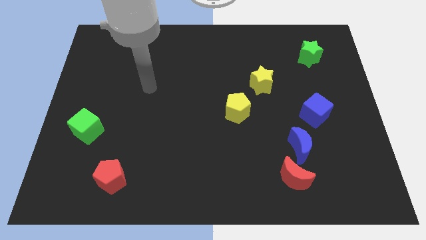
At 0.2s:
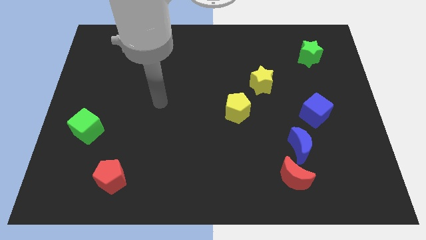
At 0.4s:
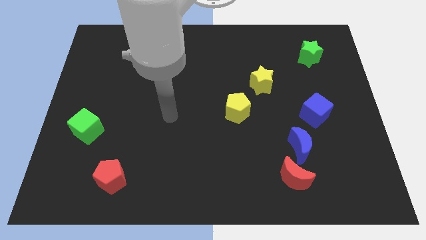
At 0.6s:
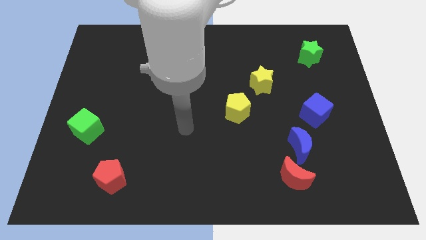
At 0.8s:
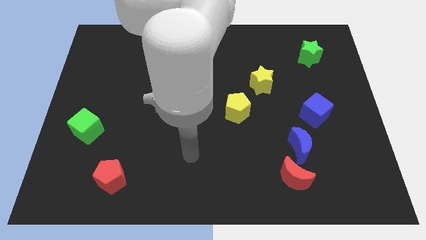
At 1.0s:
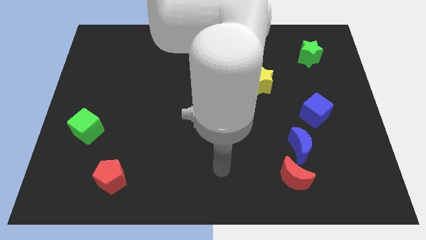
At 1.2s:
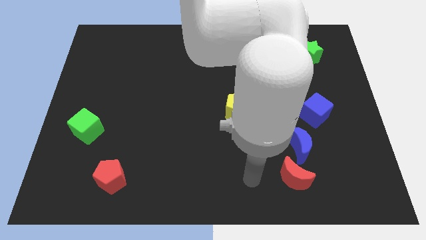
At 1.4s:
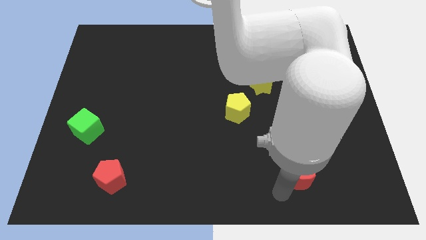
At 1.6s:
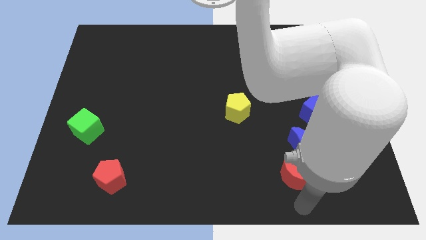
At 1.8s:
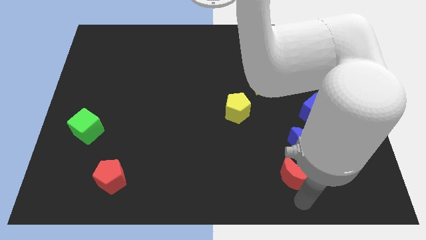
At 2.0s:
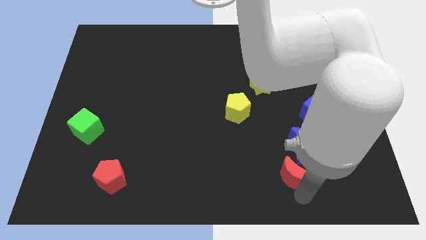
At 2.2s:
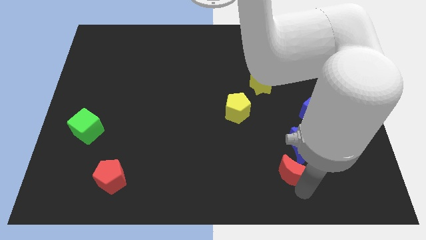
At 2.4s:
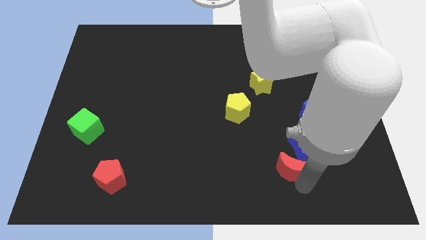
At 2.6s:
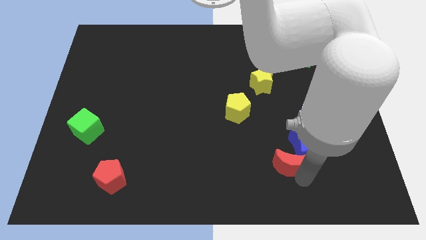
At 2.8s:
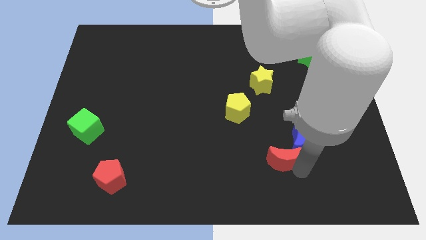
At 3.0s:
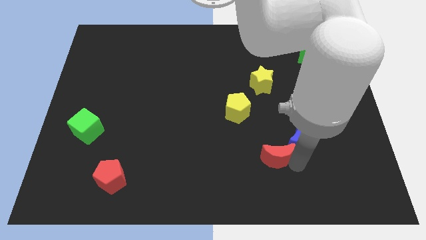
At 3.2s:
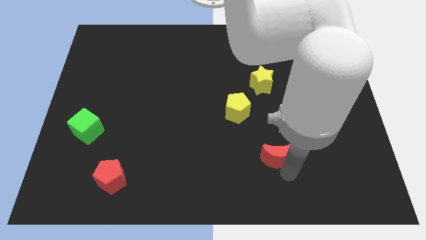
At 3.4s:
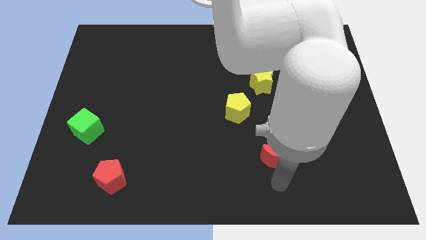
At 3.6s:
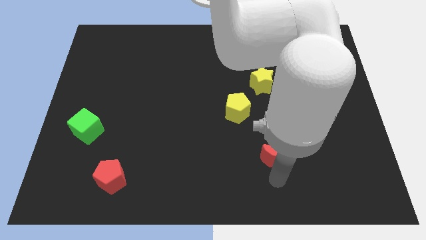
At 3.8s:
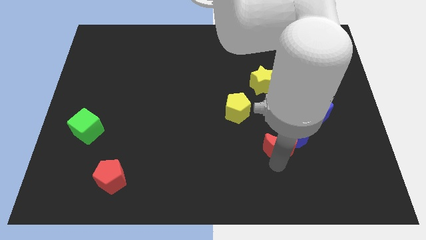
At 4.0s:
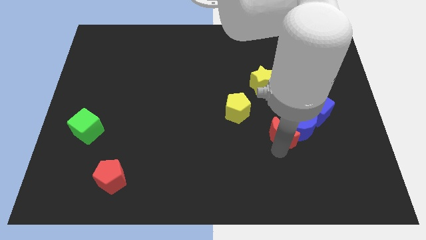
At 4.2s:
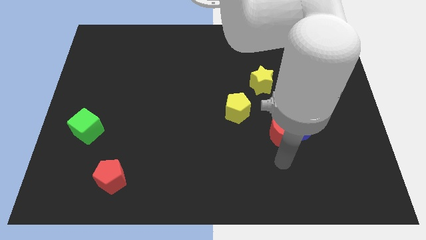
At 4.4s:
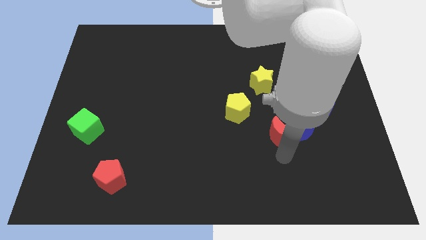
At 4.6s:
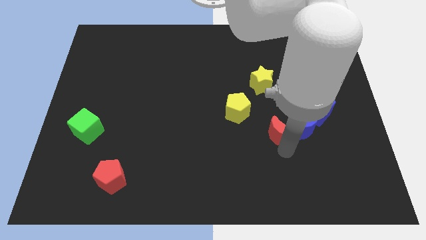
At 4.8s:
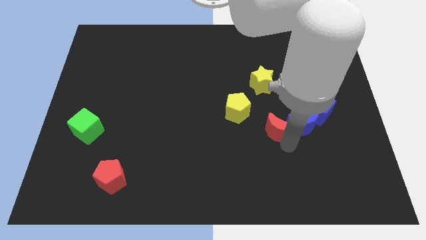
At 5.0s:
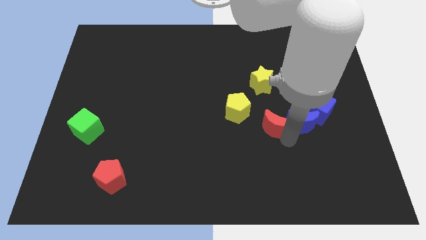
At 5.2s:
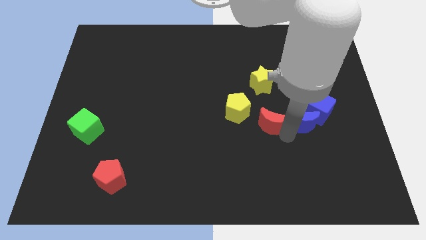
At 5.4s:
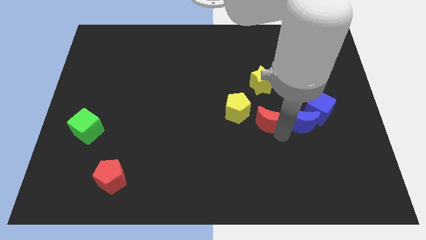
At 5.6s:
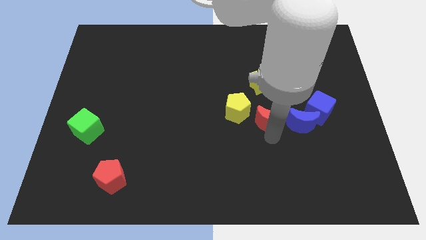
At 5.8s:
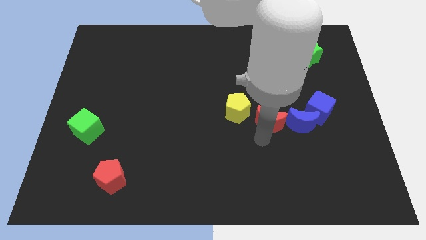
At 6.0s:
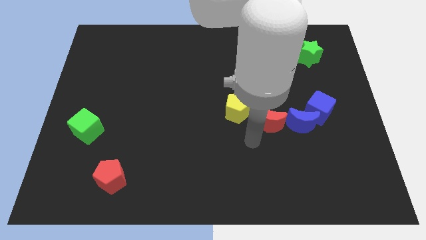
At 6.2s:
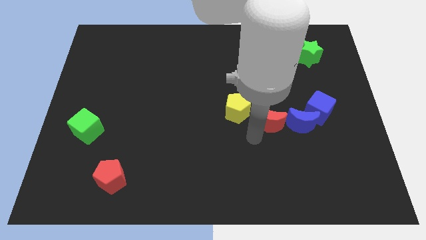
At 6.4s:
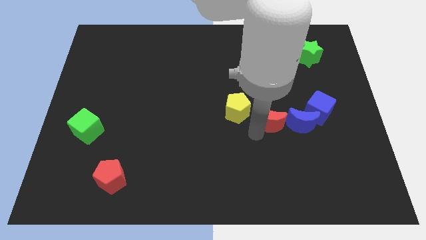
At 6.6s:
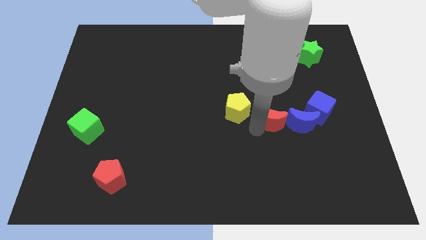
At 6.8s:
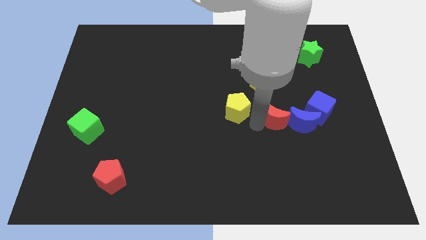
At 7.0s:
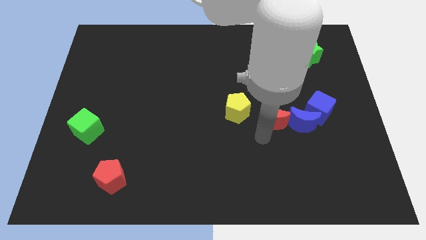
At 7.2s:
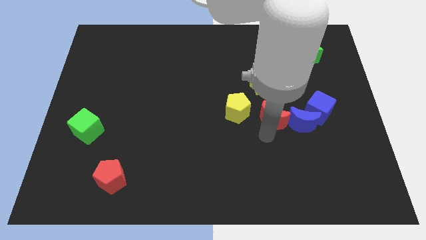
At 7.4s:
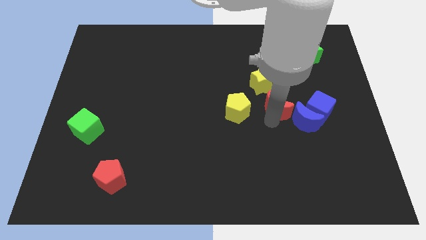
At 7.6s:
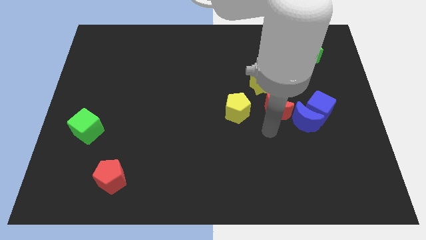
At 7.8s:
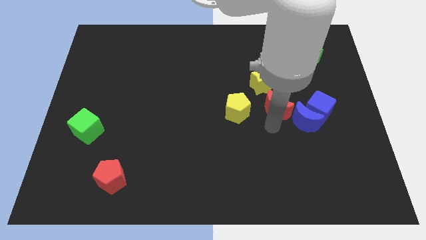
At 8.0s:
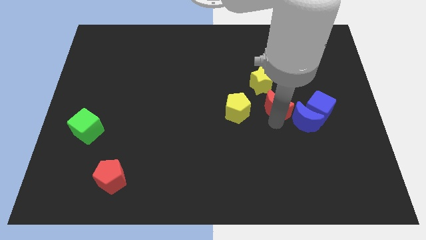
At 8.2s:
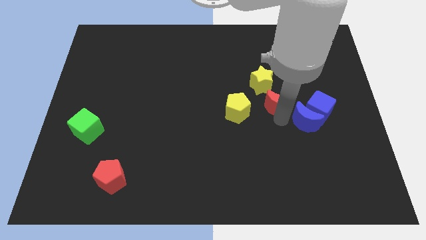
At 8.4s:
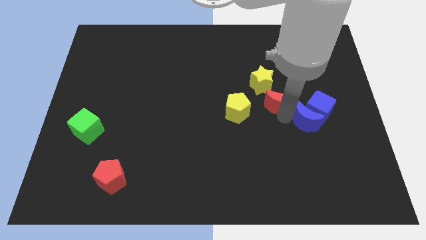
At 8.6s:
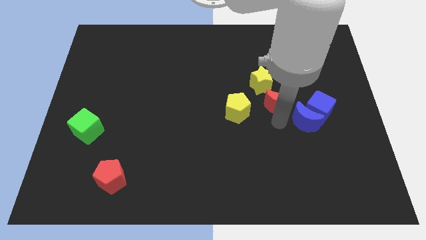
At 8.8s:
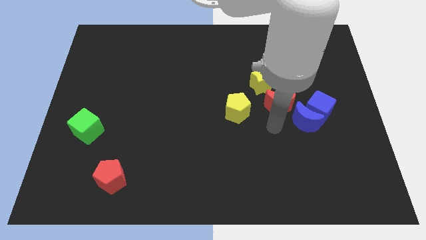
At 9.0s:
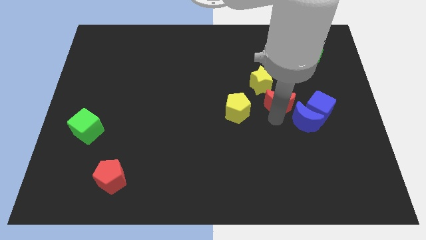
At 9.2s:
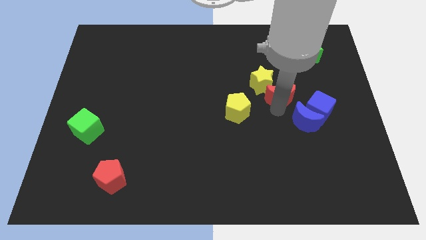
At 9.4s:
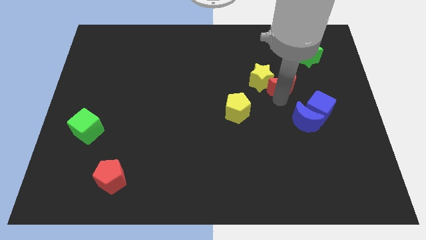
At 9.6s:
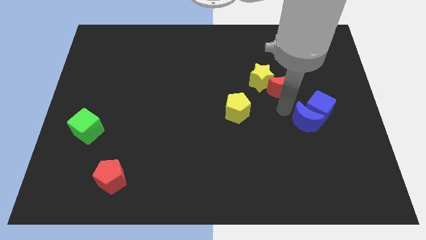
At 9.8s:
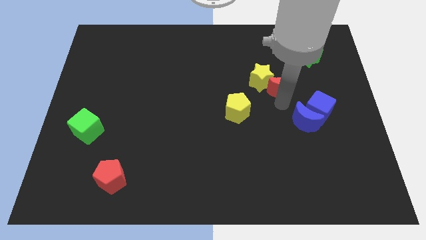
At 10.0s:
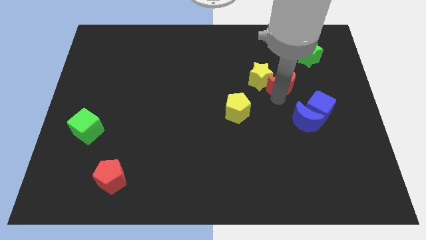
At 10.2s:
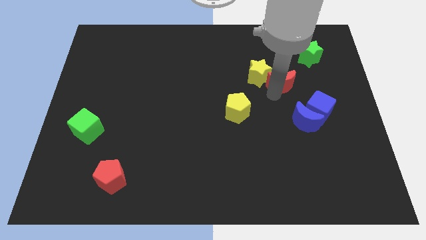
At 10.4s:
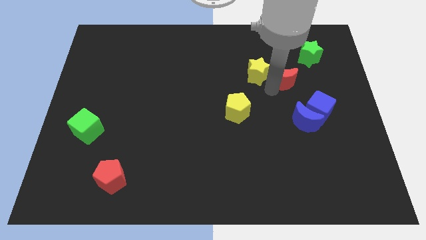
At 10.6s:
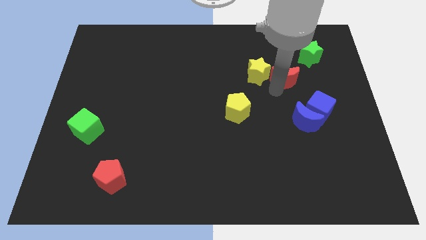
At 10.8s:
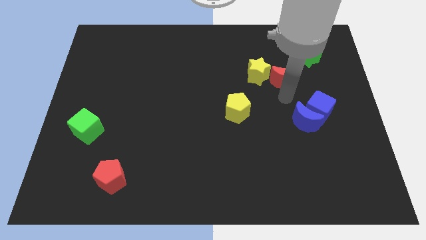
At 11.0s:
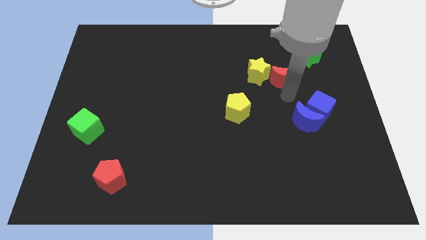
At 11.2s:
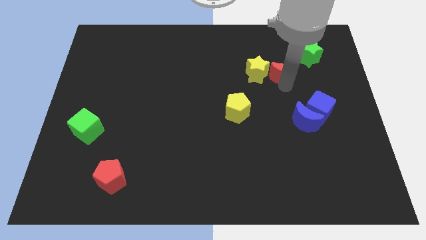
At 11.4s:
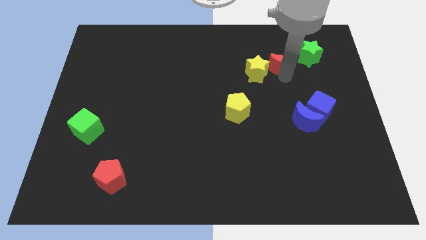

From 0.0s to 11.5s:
push the red moon to the left side of the green star
